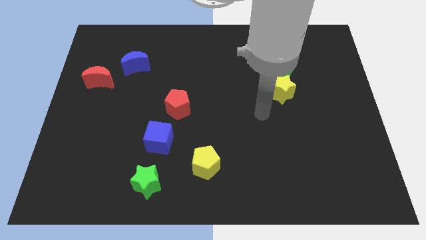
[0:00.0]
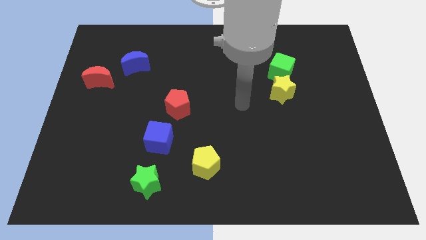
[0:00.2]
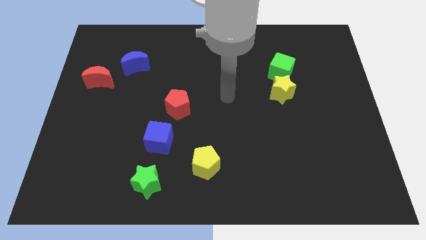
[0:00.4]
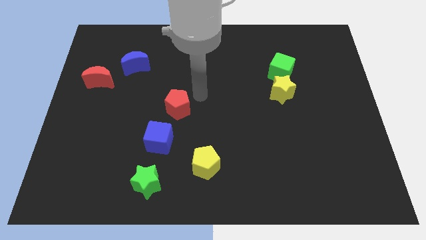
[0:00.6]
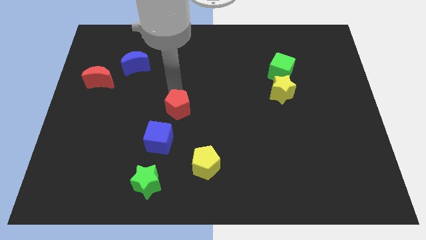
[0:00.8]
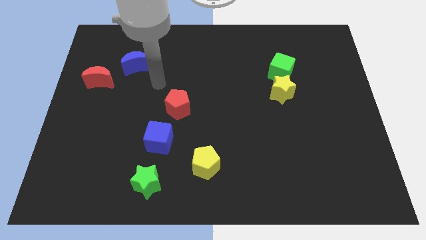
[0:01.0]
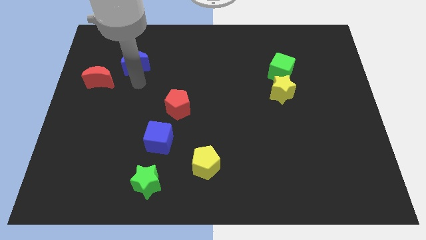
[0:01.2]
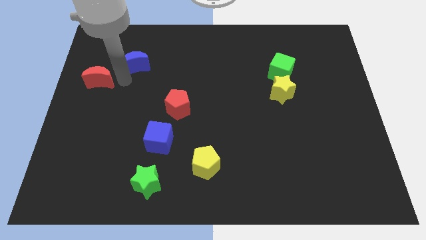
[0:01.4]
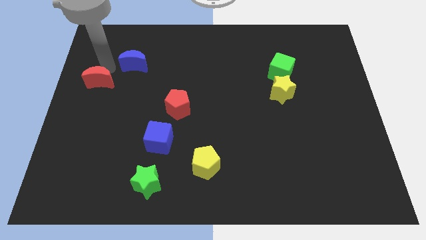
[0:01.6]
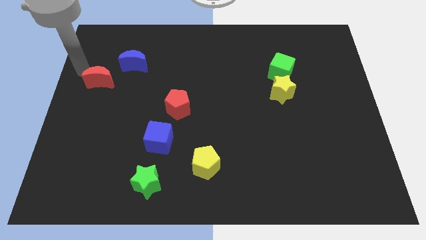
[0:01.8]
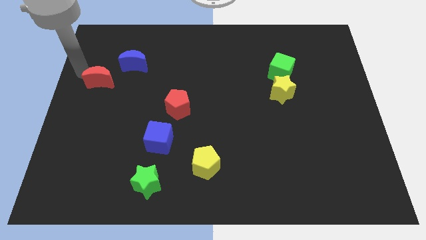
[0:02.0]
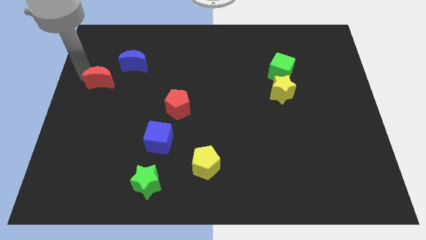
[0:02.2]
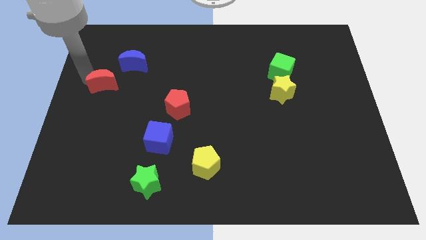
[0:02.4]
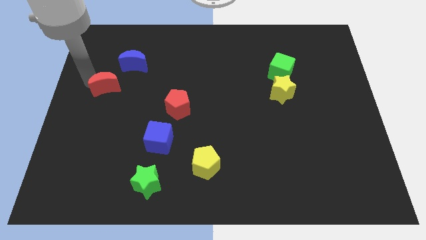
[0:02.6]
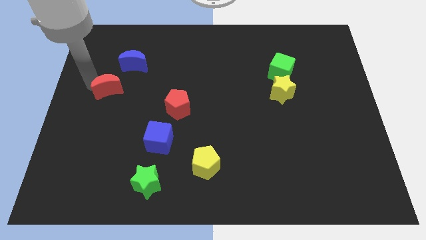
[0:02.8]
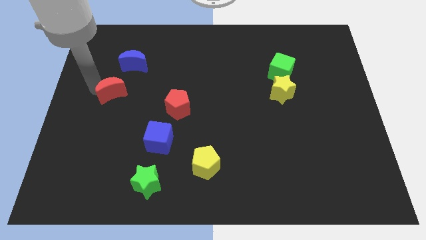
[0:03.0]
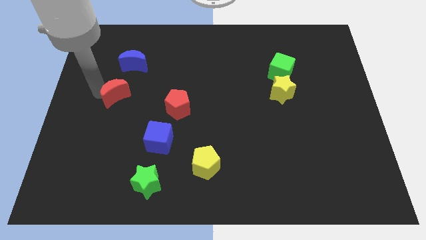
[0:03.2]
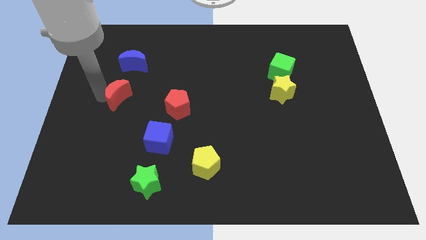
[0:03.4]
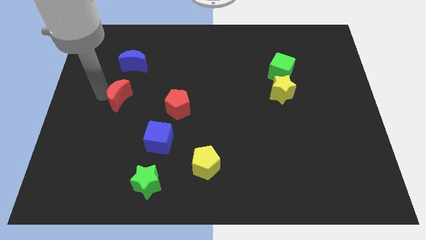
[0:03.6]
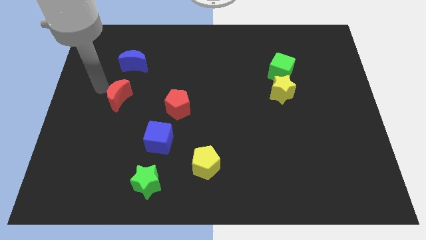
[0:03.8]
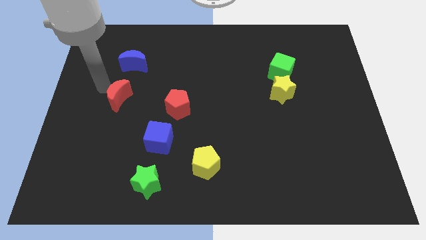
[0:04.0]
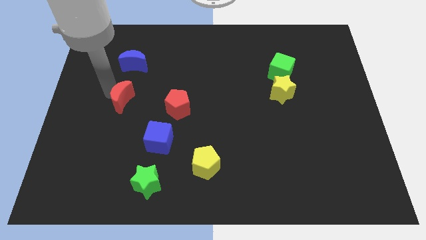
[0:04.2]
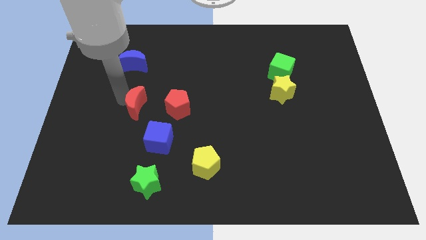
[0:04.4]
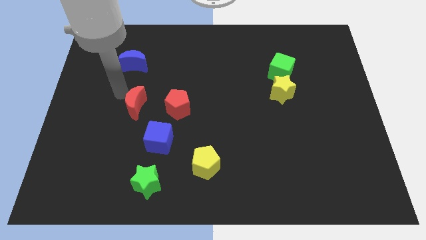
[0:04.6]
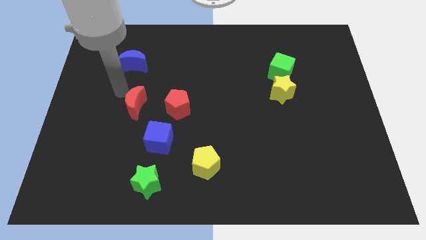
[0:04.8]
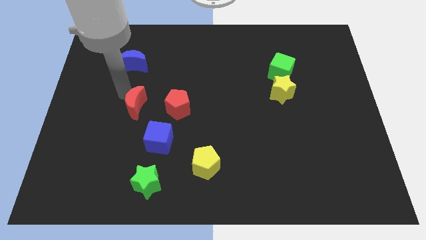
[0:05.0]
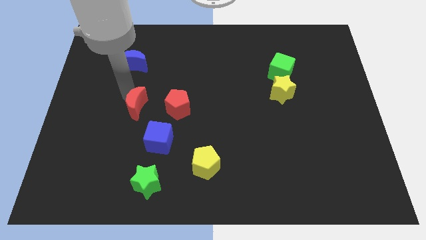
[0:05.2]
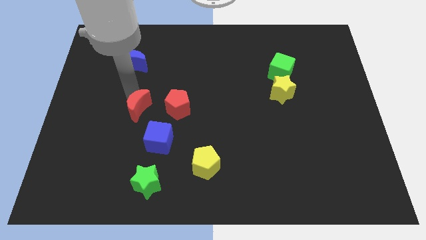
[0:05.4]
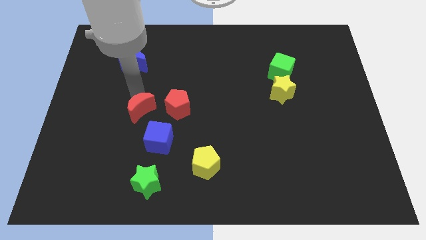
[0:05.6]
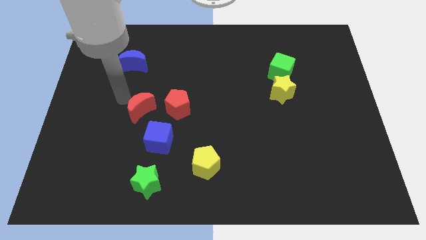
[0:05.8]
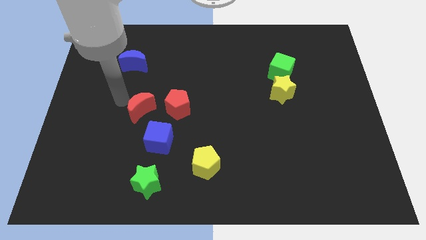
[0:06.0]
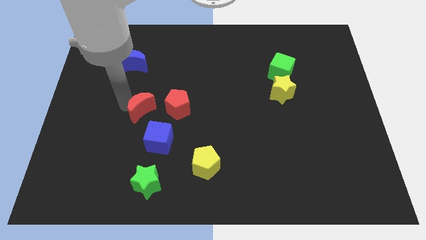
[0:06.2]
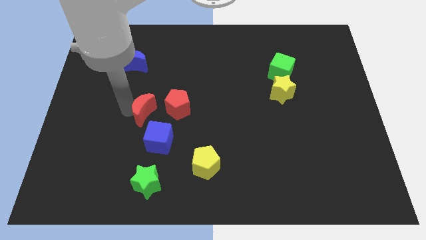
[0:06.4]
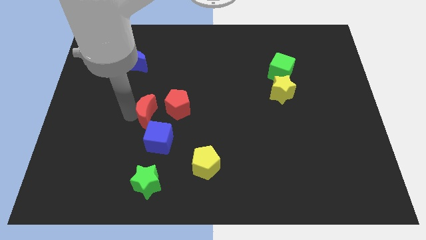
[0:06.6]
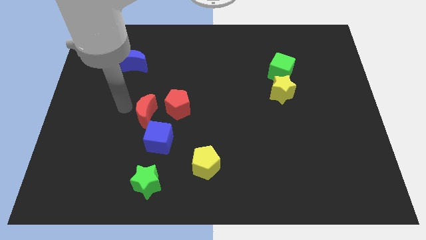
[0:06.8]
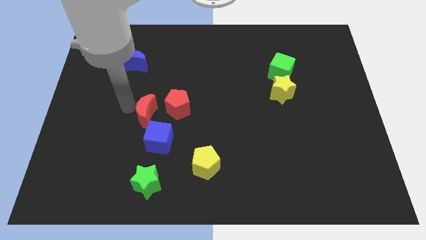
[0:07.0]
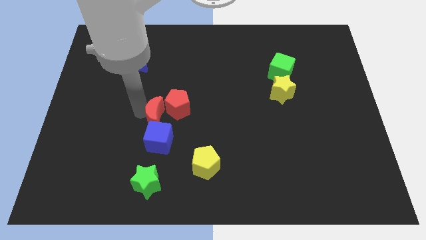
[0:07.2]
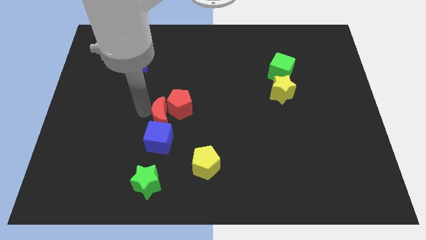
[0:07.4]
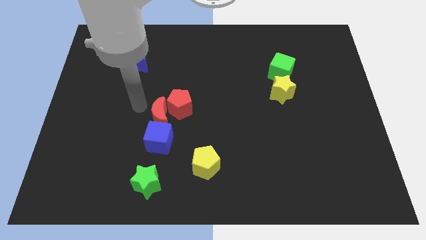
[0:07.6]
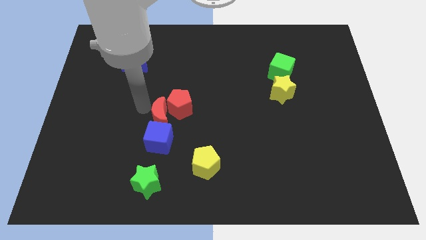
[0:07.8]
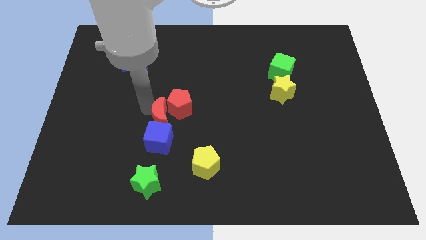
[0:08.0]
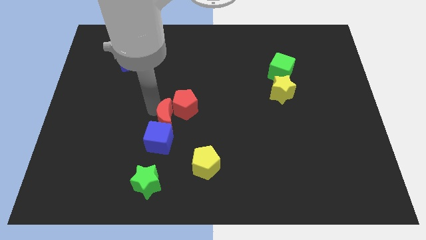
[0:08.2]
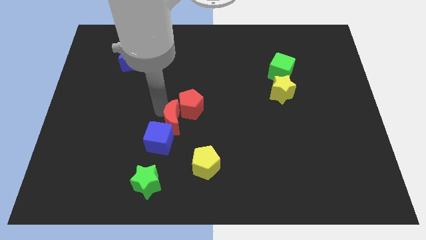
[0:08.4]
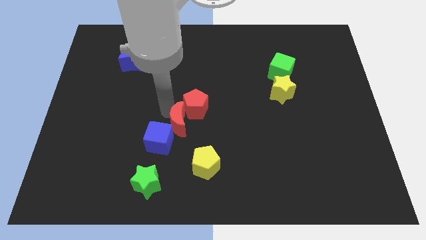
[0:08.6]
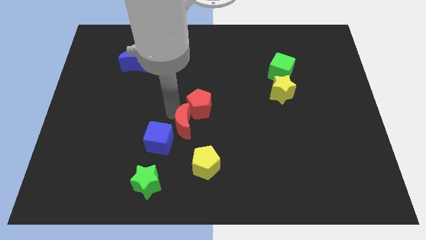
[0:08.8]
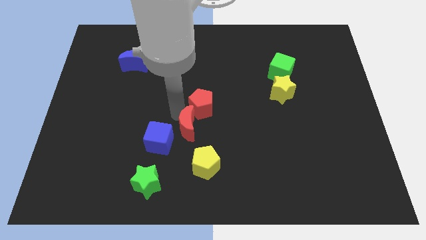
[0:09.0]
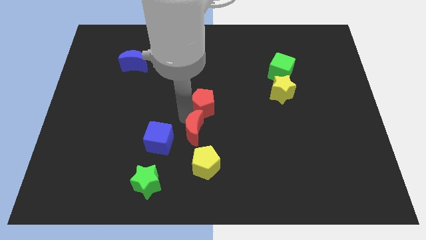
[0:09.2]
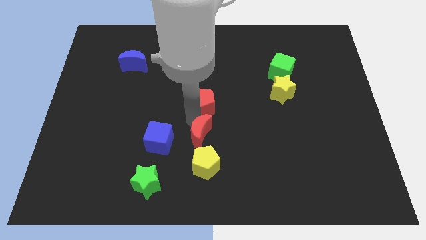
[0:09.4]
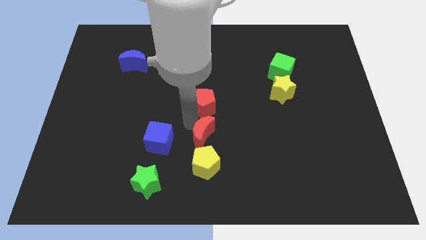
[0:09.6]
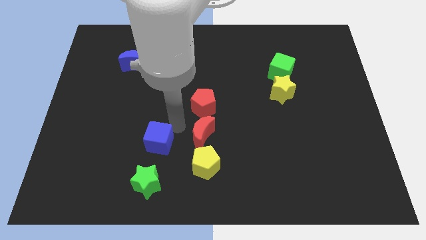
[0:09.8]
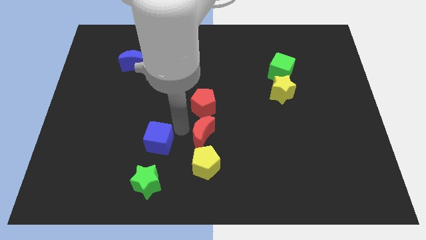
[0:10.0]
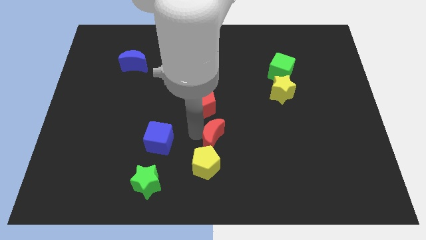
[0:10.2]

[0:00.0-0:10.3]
move the red moon to the top right of the yellow pentagon

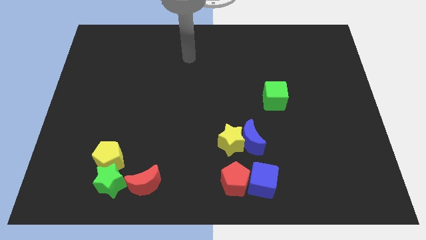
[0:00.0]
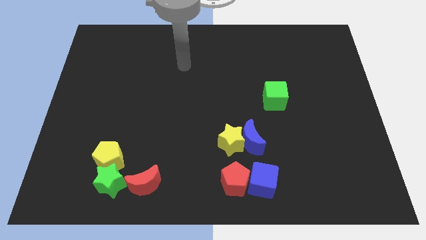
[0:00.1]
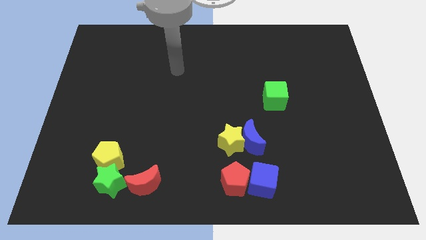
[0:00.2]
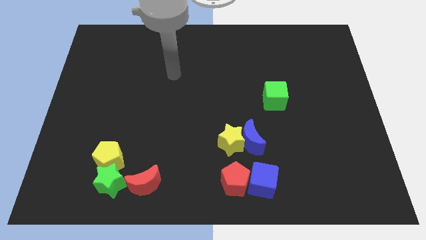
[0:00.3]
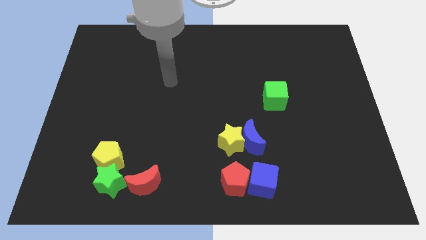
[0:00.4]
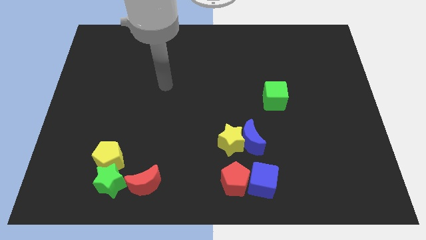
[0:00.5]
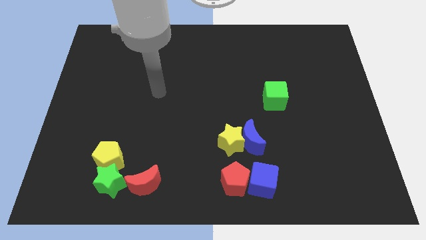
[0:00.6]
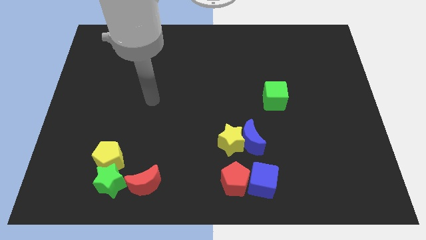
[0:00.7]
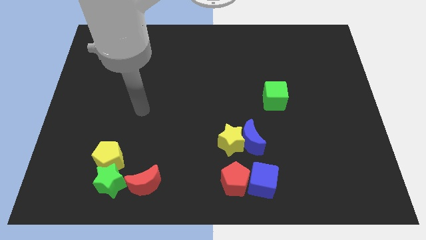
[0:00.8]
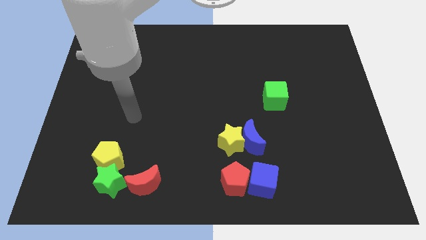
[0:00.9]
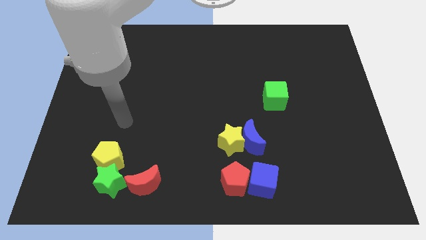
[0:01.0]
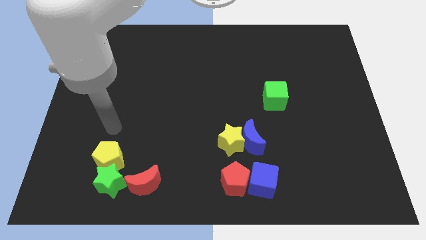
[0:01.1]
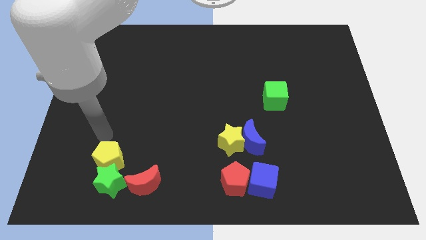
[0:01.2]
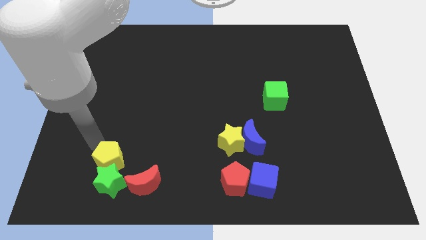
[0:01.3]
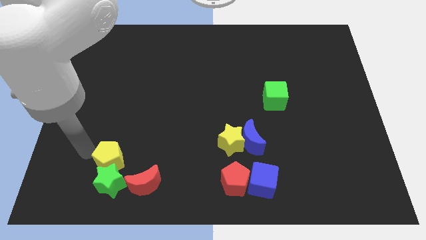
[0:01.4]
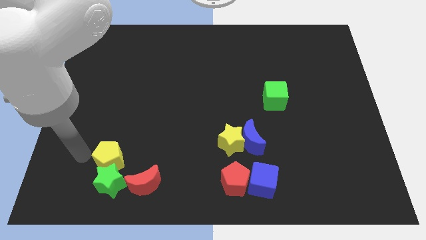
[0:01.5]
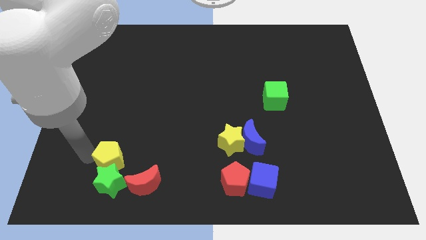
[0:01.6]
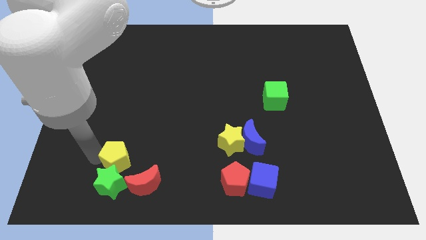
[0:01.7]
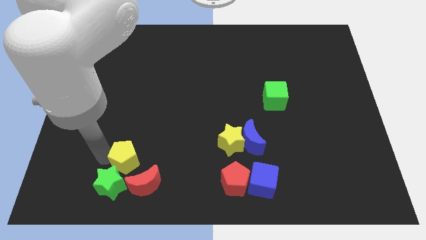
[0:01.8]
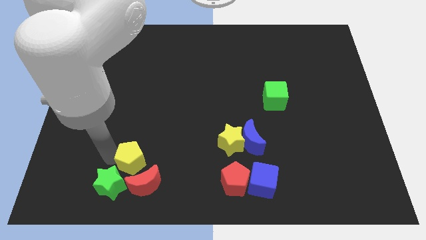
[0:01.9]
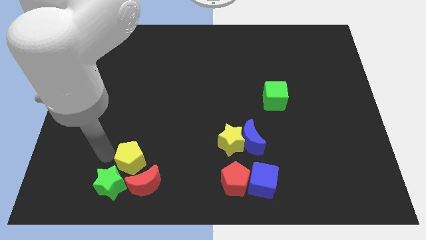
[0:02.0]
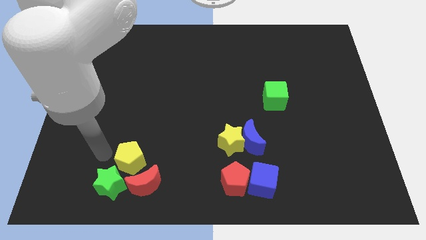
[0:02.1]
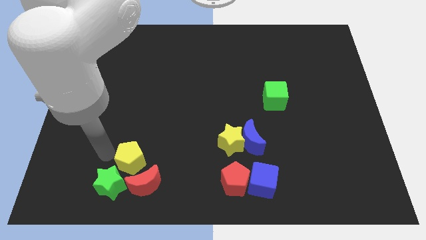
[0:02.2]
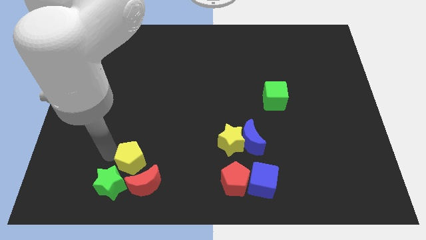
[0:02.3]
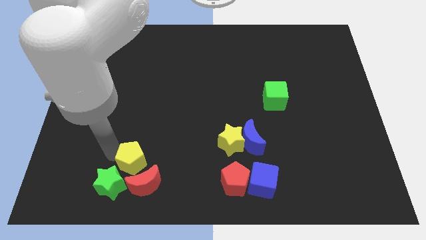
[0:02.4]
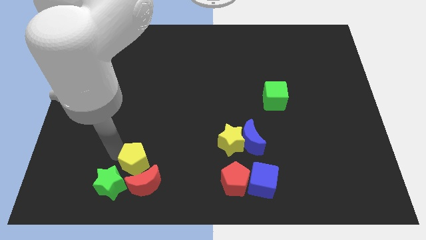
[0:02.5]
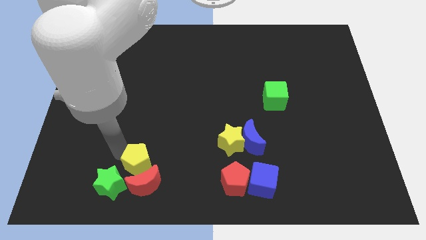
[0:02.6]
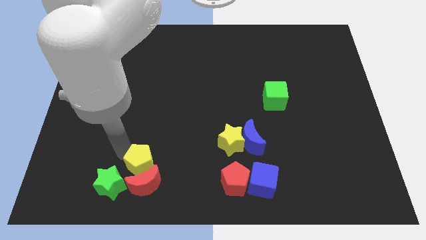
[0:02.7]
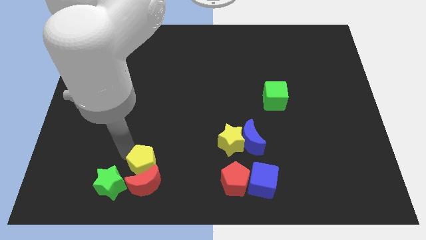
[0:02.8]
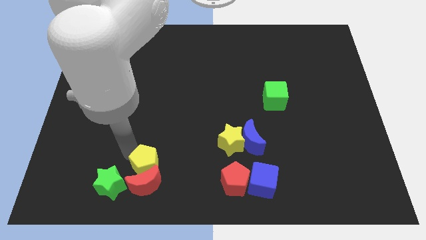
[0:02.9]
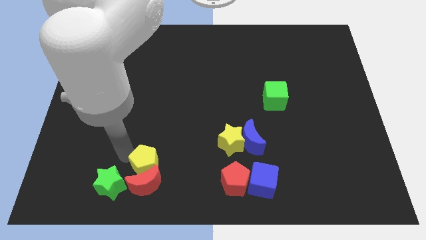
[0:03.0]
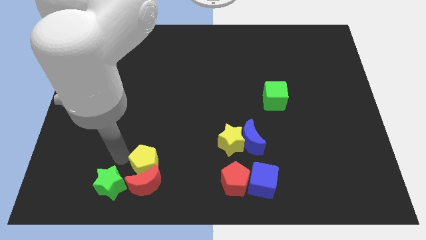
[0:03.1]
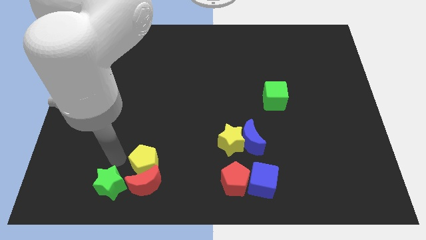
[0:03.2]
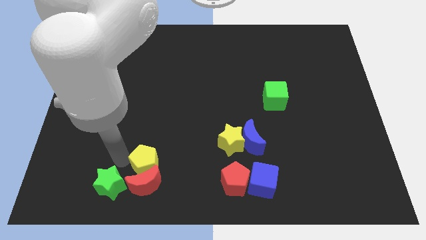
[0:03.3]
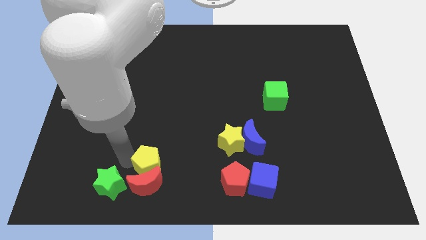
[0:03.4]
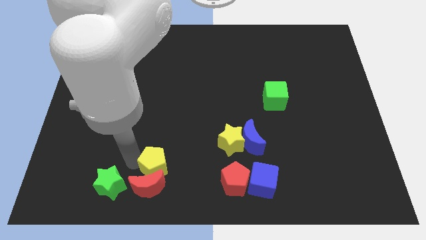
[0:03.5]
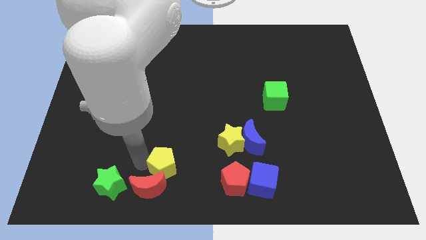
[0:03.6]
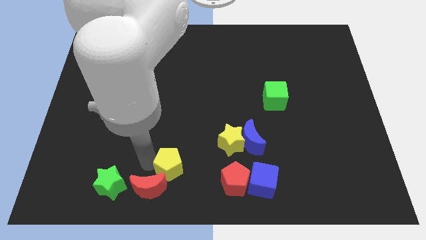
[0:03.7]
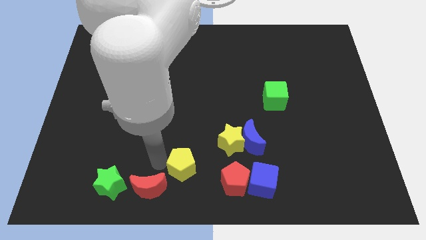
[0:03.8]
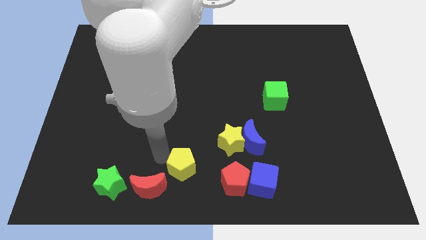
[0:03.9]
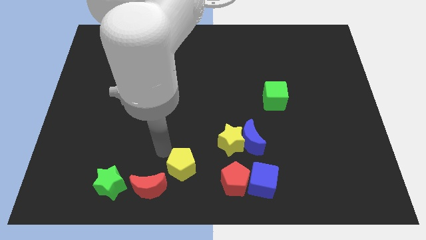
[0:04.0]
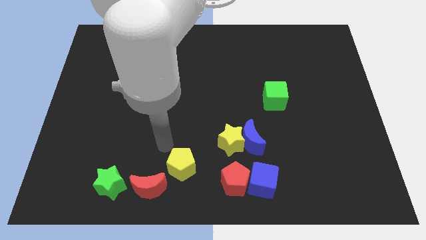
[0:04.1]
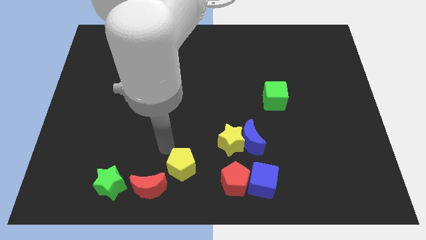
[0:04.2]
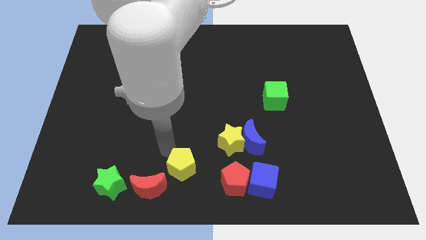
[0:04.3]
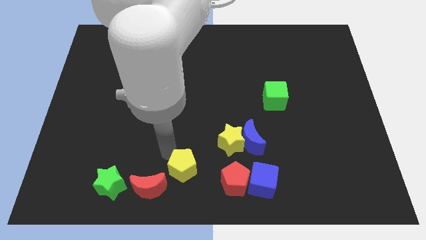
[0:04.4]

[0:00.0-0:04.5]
put the yellow pentagon just right of the red moon
